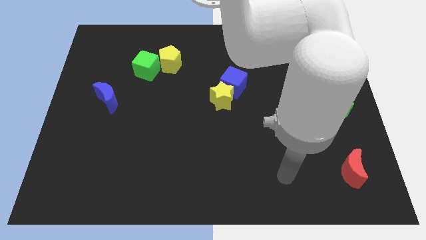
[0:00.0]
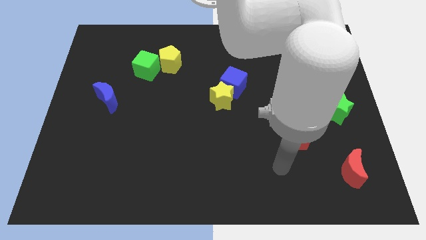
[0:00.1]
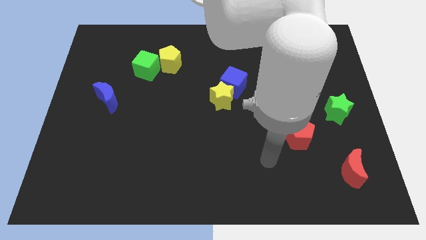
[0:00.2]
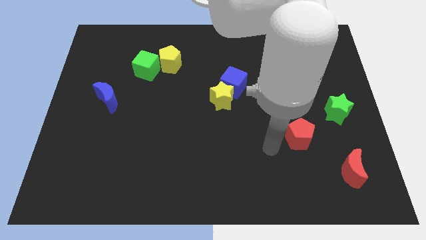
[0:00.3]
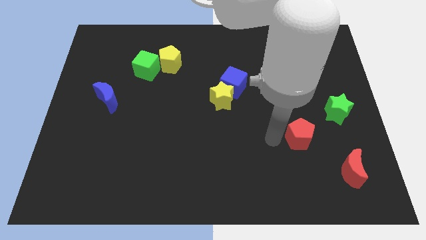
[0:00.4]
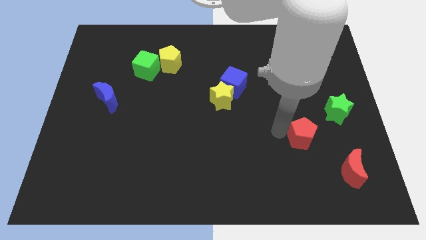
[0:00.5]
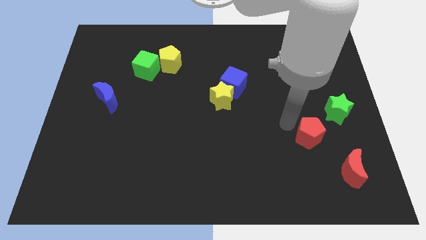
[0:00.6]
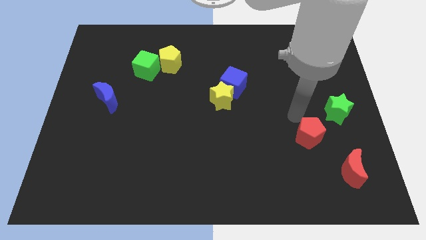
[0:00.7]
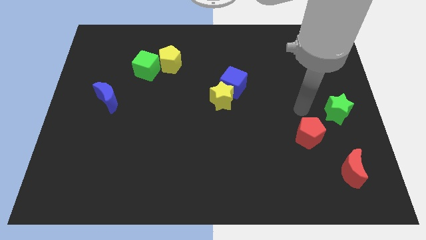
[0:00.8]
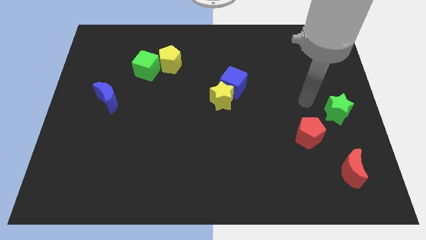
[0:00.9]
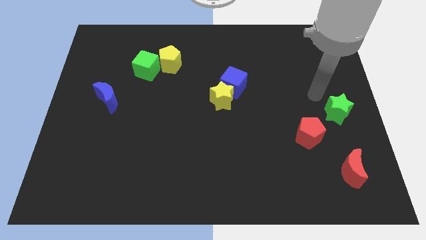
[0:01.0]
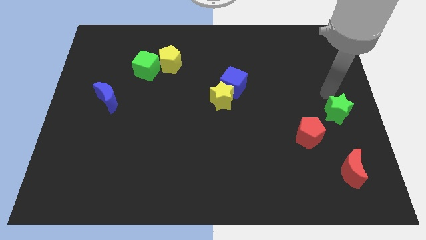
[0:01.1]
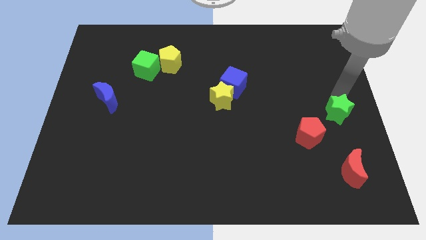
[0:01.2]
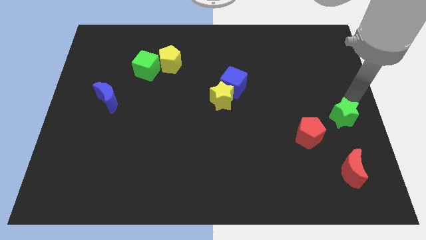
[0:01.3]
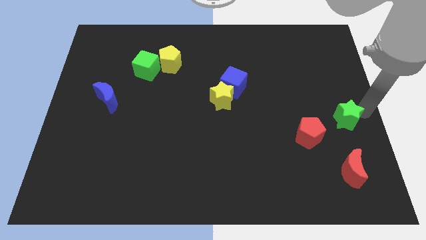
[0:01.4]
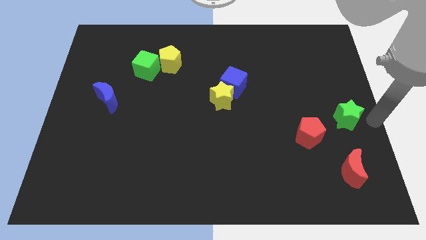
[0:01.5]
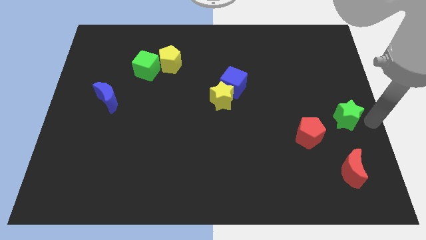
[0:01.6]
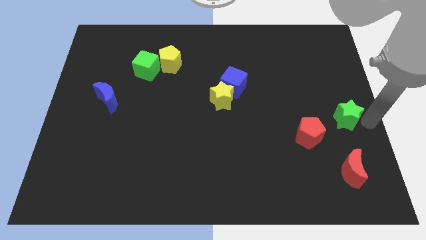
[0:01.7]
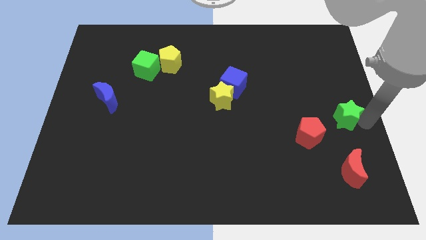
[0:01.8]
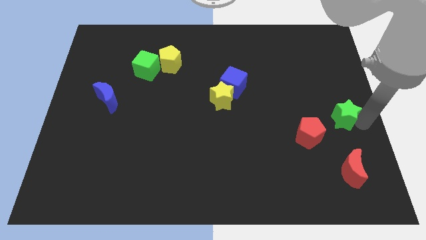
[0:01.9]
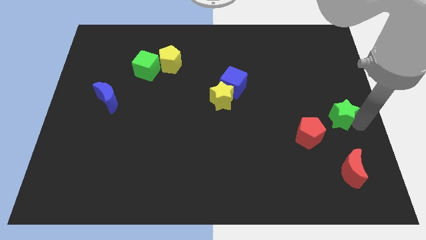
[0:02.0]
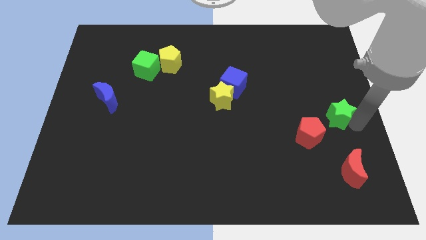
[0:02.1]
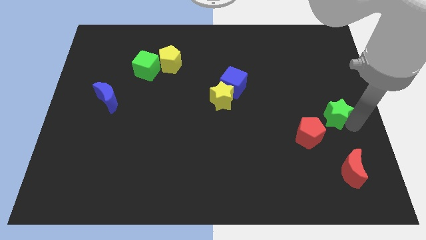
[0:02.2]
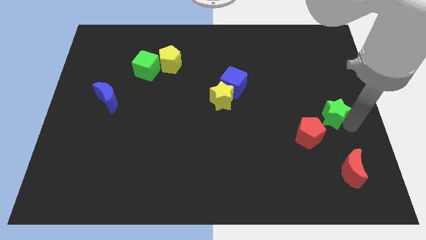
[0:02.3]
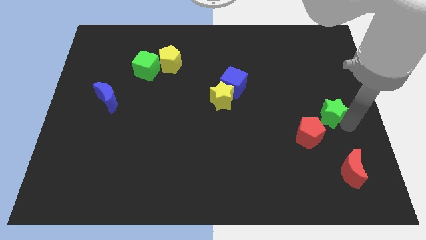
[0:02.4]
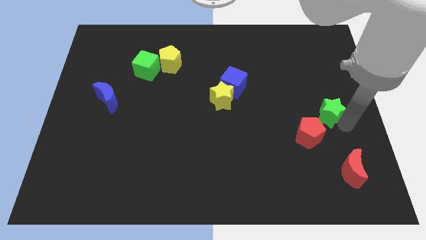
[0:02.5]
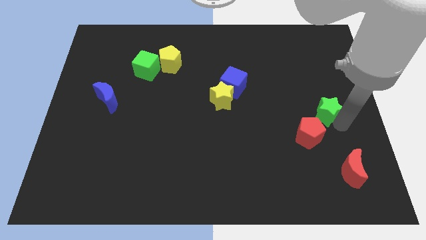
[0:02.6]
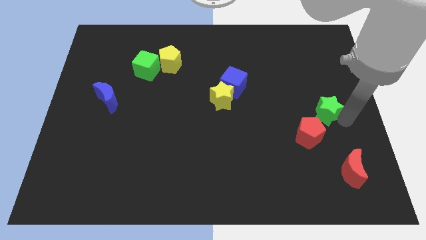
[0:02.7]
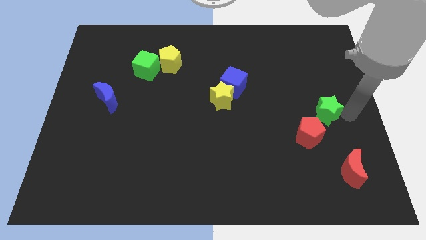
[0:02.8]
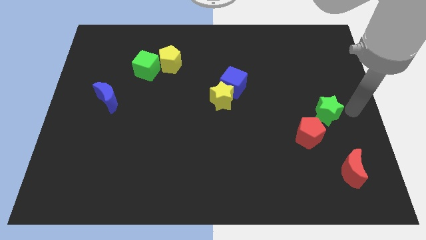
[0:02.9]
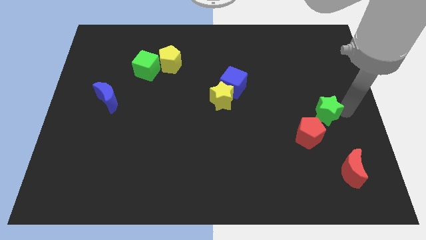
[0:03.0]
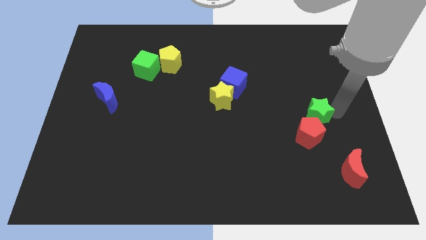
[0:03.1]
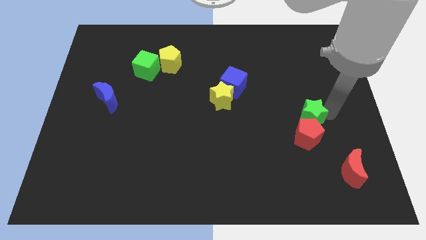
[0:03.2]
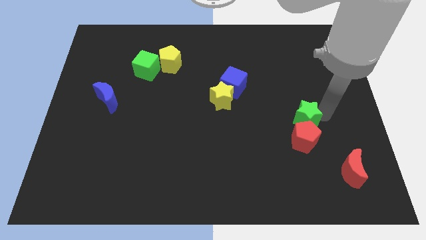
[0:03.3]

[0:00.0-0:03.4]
slide the green star to the left slightly

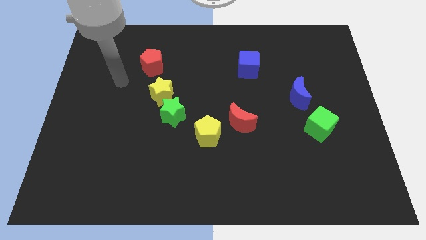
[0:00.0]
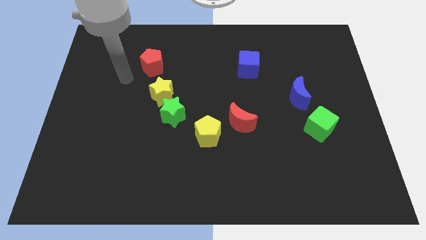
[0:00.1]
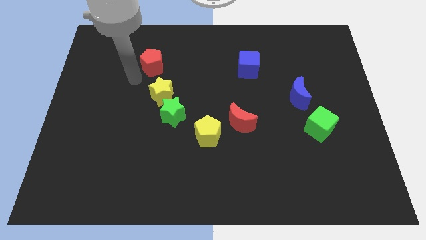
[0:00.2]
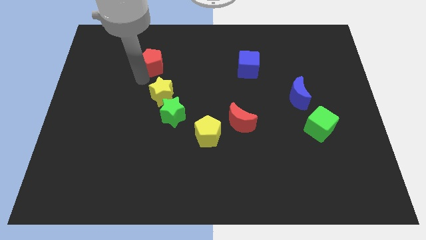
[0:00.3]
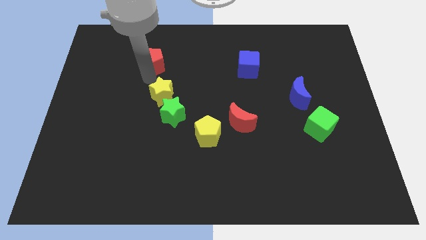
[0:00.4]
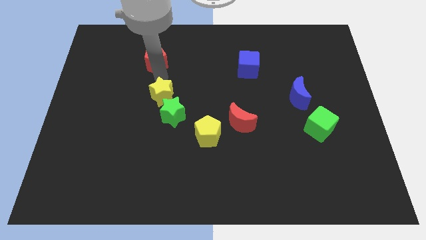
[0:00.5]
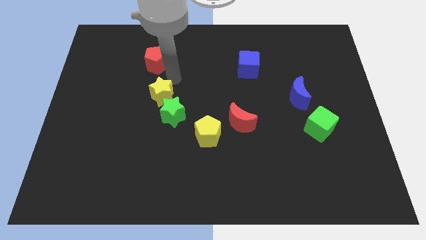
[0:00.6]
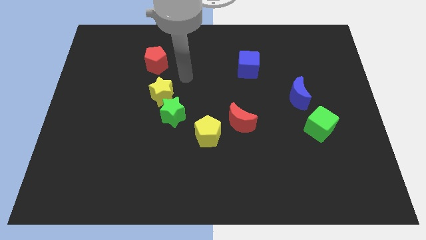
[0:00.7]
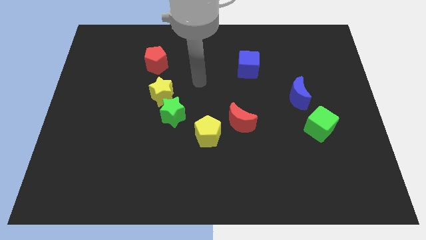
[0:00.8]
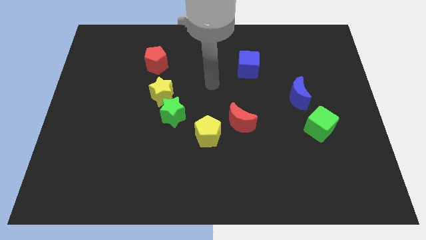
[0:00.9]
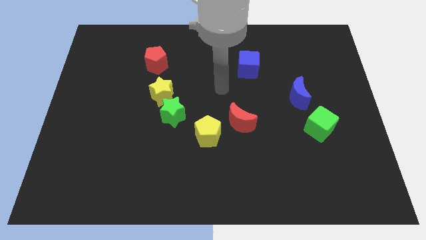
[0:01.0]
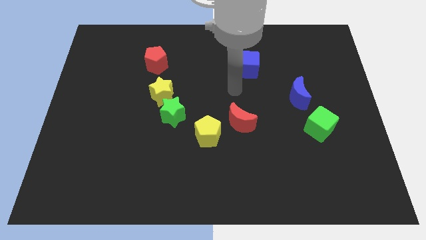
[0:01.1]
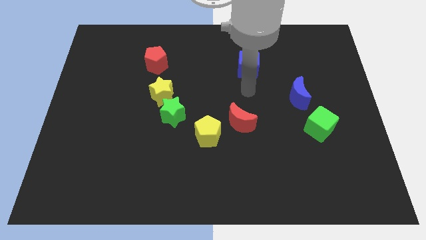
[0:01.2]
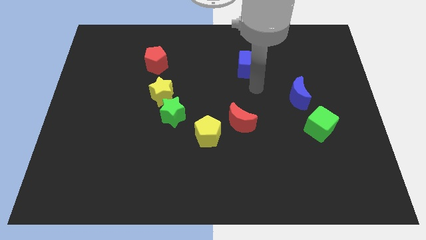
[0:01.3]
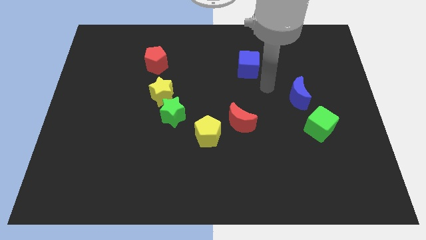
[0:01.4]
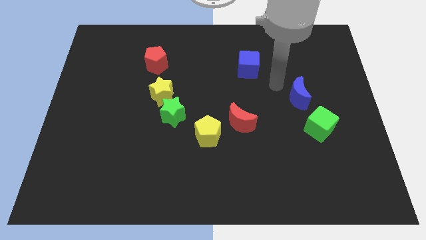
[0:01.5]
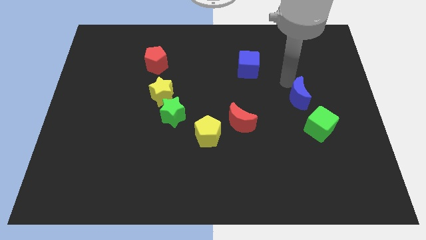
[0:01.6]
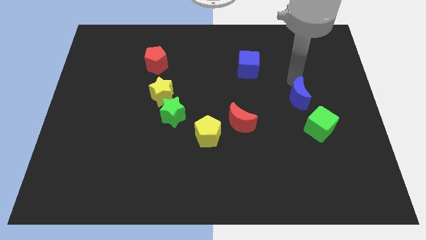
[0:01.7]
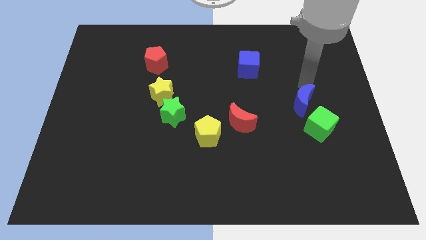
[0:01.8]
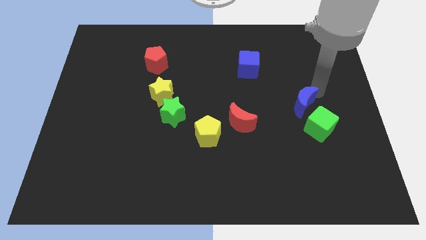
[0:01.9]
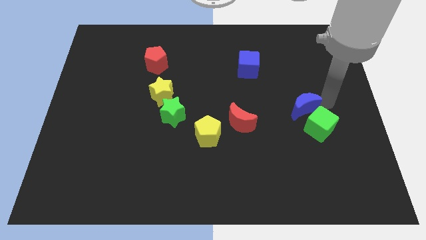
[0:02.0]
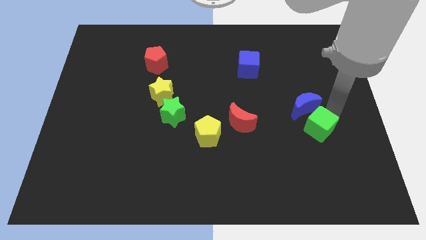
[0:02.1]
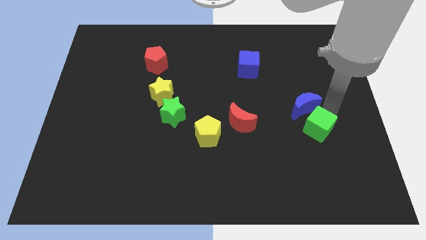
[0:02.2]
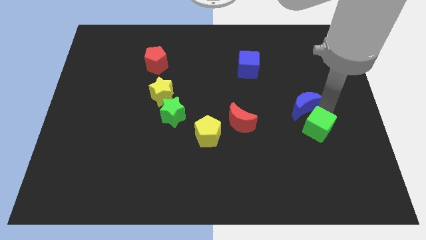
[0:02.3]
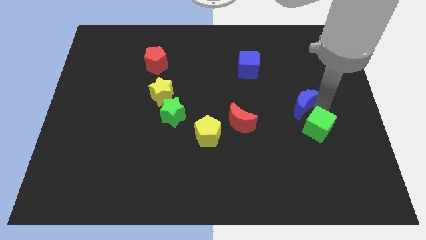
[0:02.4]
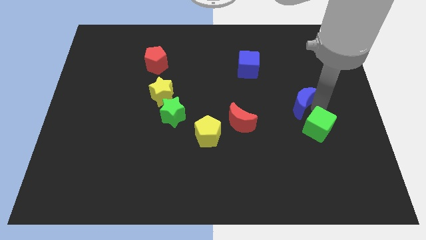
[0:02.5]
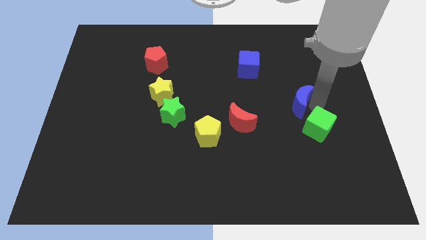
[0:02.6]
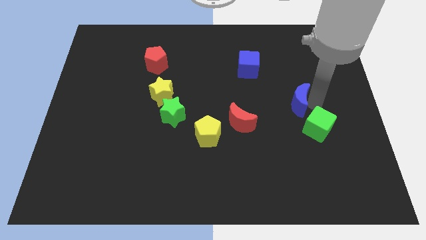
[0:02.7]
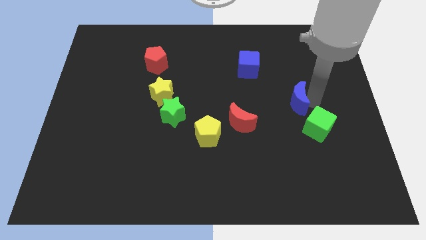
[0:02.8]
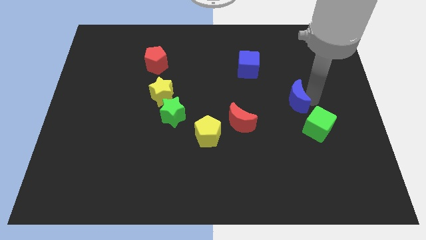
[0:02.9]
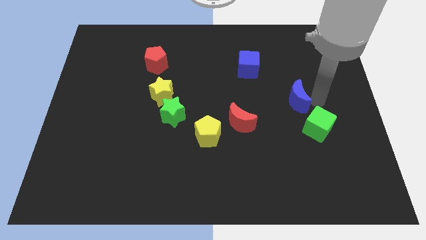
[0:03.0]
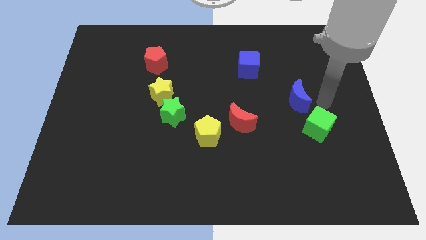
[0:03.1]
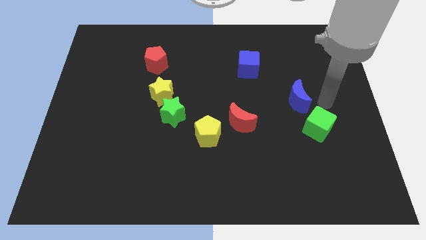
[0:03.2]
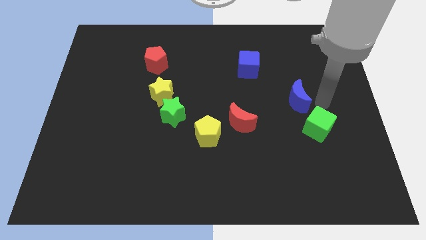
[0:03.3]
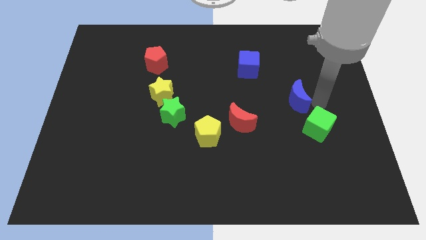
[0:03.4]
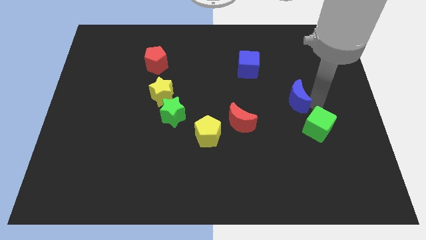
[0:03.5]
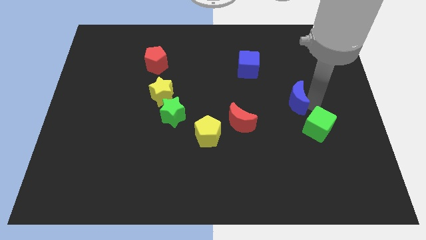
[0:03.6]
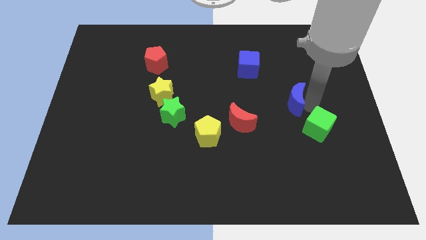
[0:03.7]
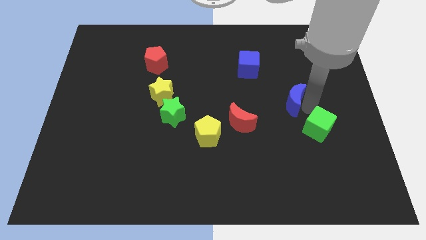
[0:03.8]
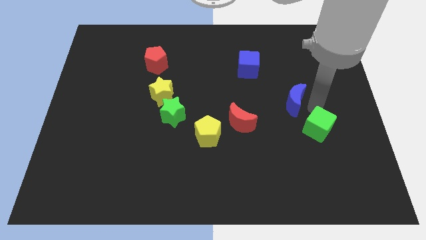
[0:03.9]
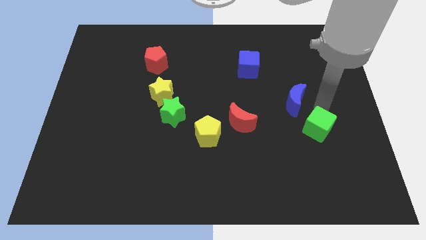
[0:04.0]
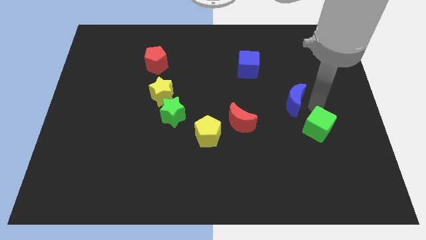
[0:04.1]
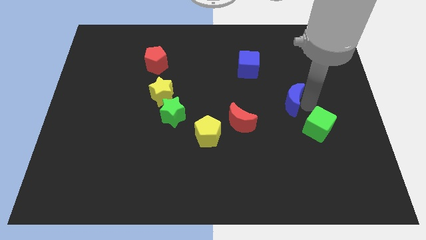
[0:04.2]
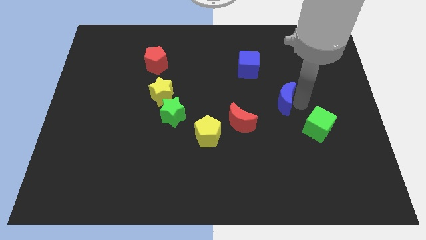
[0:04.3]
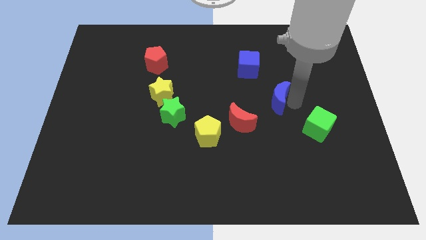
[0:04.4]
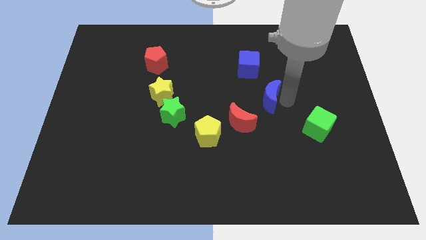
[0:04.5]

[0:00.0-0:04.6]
slightly push the blue moon left
